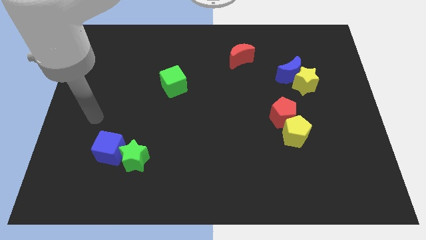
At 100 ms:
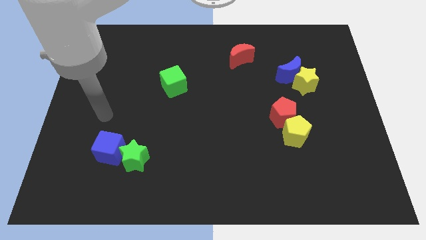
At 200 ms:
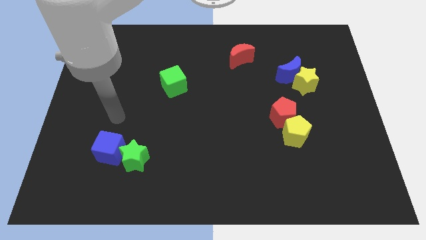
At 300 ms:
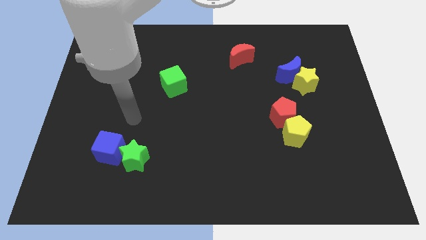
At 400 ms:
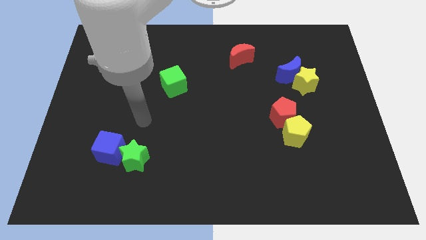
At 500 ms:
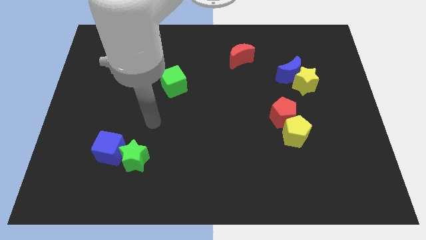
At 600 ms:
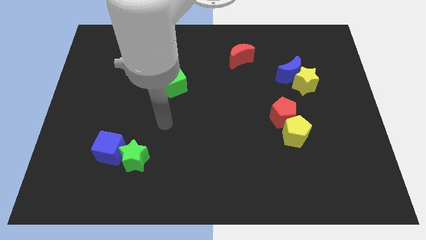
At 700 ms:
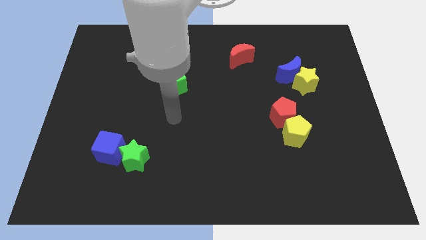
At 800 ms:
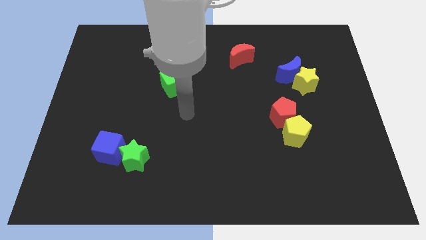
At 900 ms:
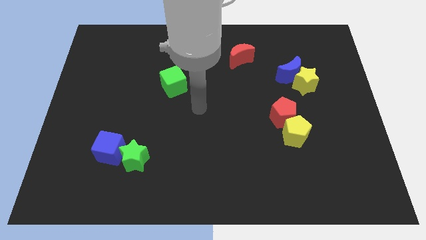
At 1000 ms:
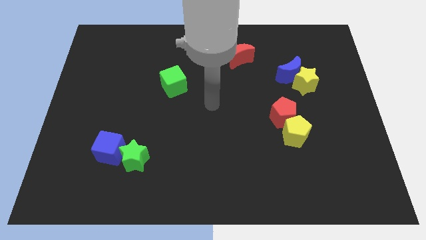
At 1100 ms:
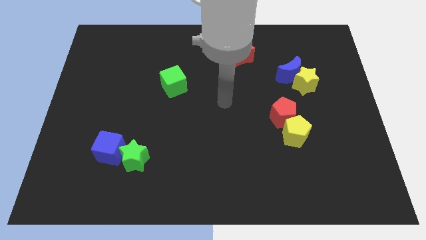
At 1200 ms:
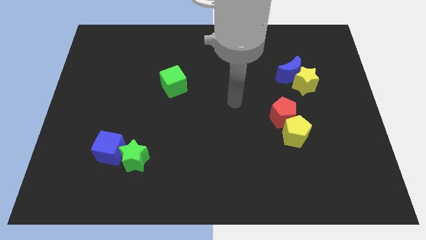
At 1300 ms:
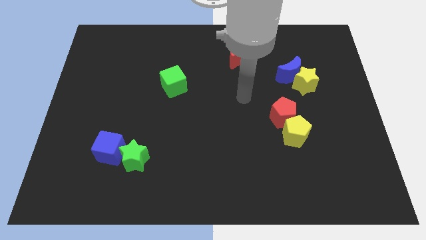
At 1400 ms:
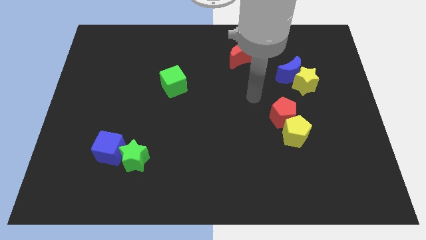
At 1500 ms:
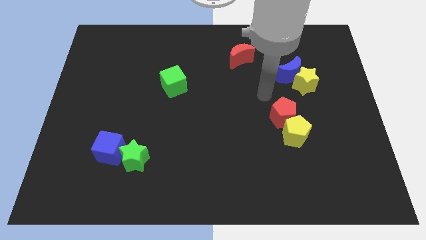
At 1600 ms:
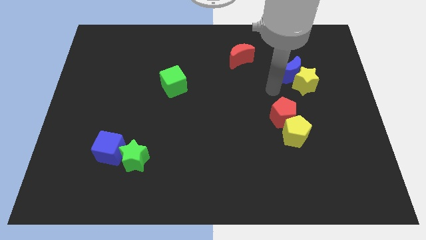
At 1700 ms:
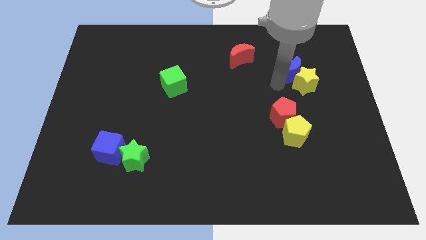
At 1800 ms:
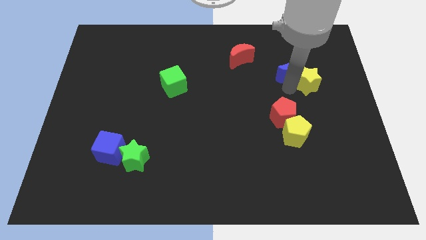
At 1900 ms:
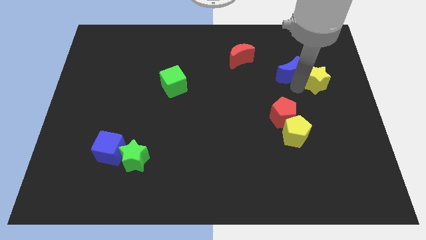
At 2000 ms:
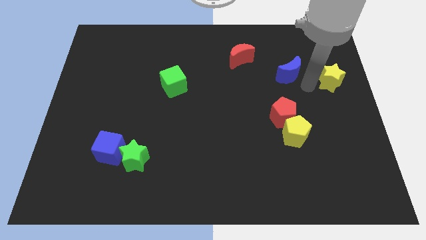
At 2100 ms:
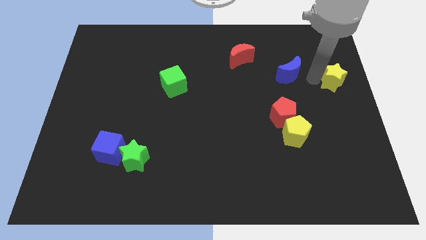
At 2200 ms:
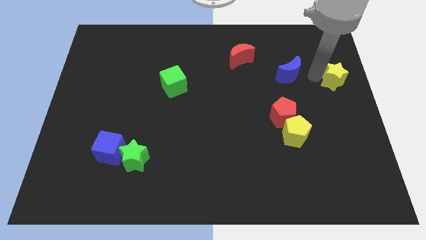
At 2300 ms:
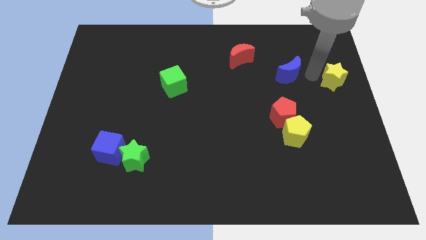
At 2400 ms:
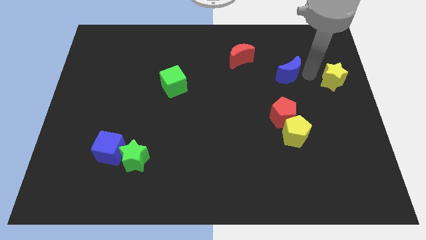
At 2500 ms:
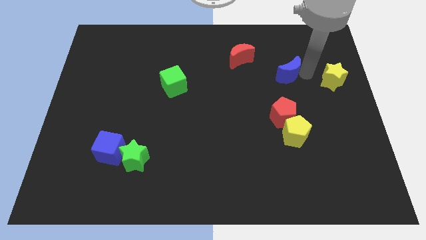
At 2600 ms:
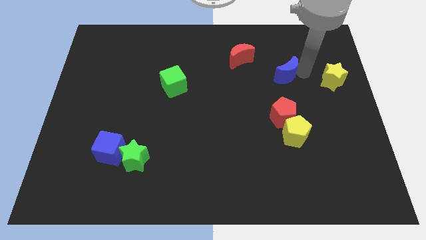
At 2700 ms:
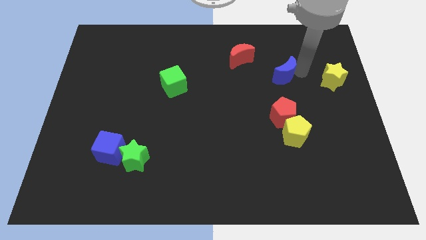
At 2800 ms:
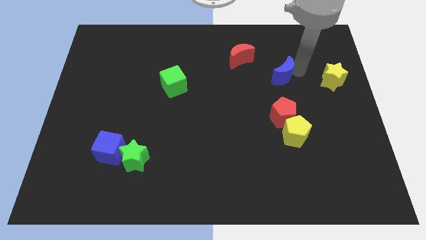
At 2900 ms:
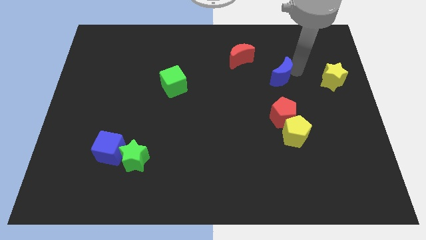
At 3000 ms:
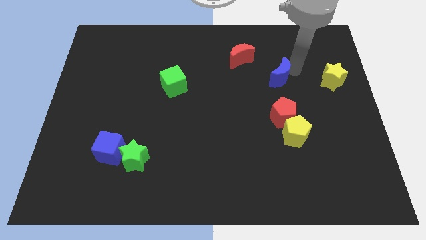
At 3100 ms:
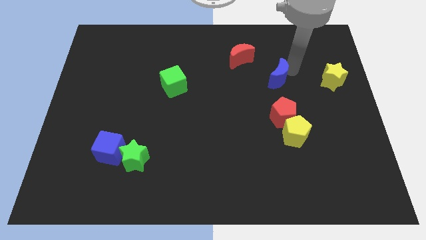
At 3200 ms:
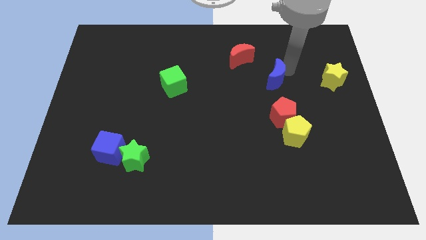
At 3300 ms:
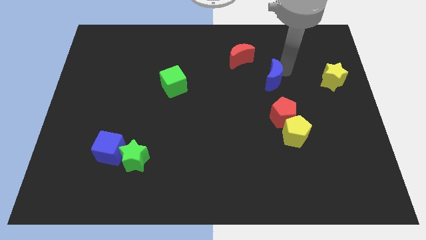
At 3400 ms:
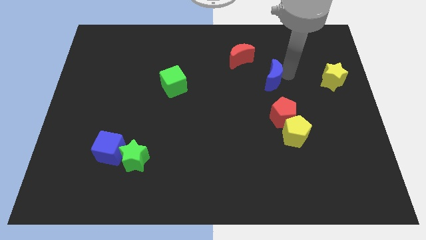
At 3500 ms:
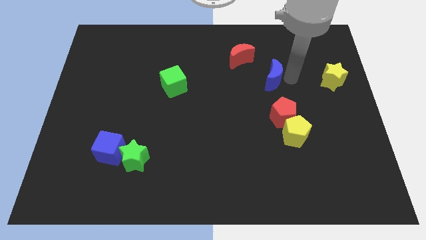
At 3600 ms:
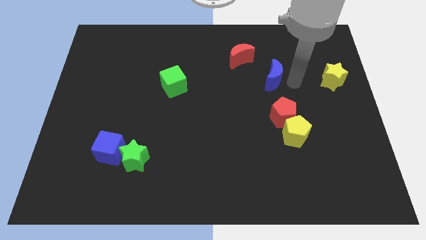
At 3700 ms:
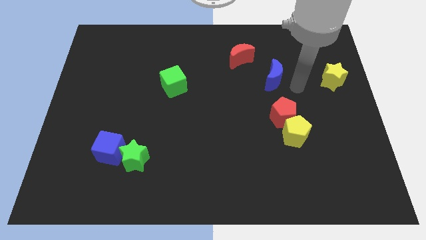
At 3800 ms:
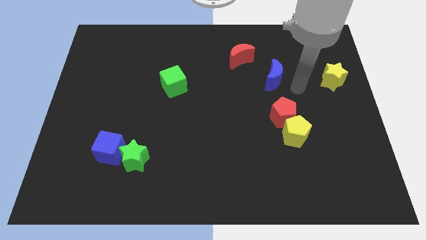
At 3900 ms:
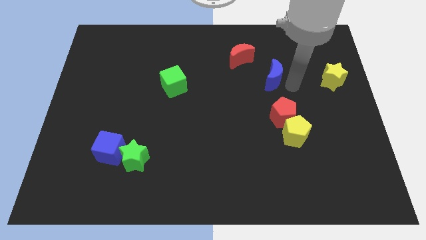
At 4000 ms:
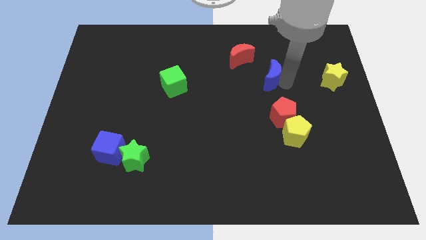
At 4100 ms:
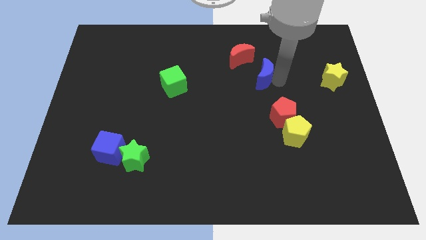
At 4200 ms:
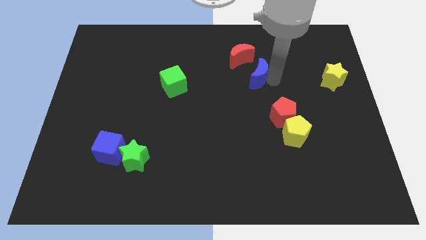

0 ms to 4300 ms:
slightly push the blue moon to the left

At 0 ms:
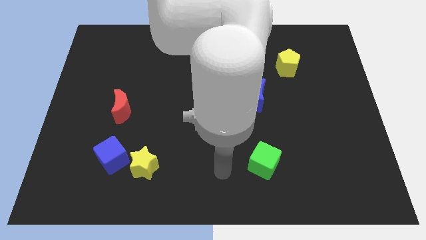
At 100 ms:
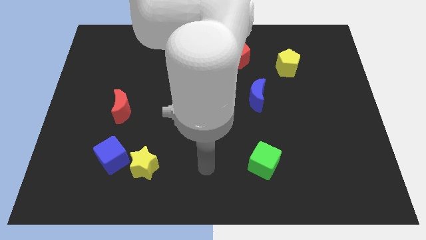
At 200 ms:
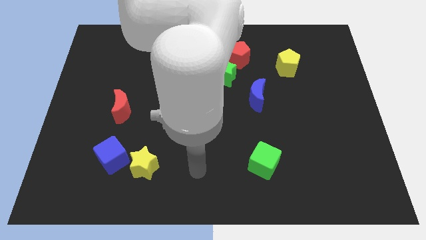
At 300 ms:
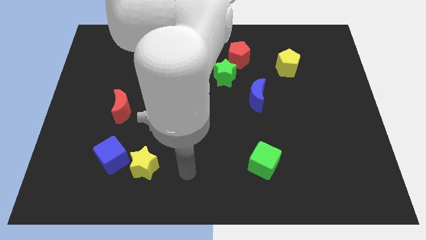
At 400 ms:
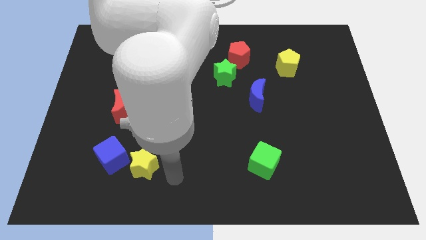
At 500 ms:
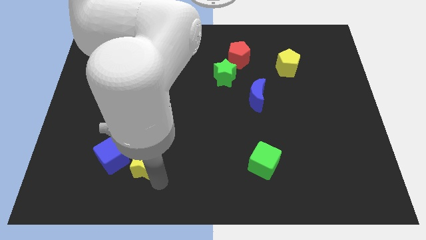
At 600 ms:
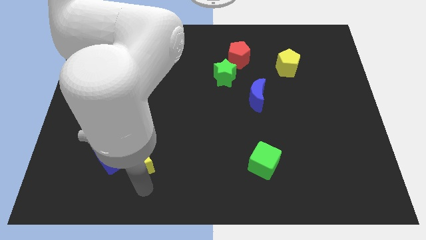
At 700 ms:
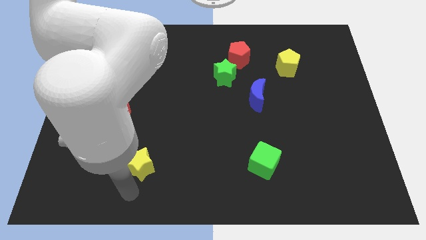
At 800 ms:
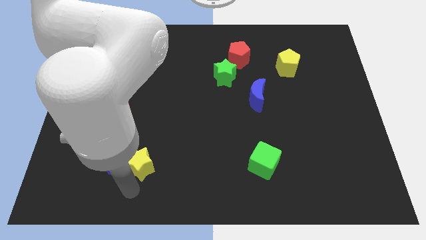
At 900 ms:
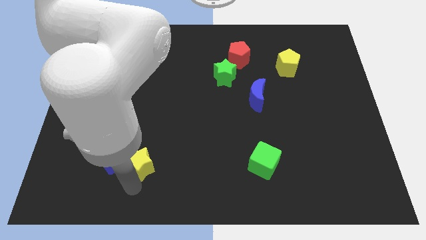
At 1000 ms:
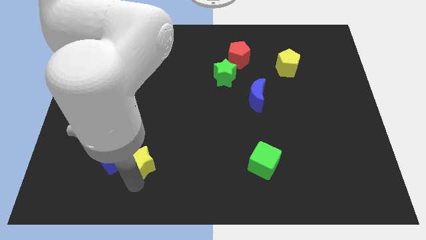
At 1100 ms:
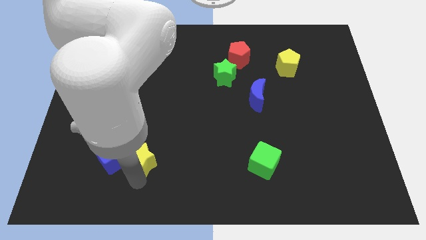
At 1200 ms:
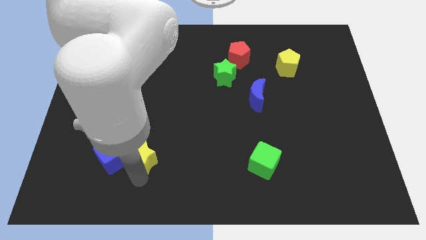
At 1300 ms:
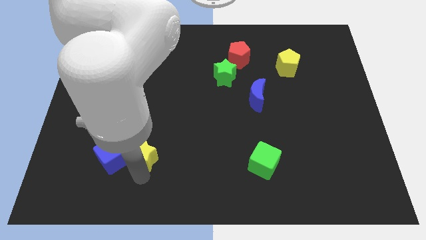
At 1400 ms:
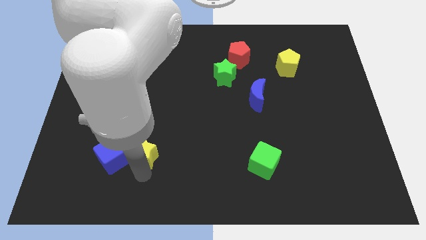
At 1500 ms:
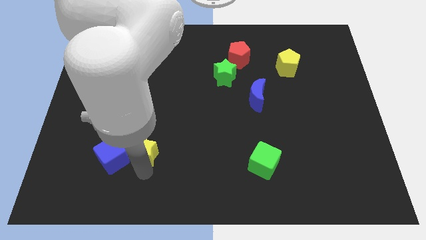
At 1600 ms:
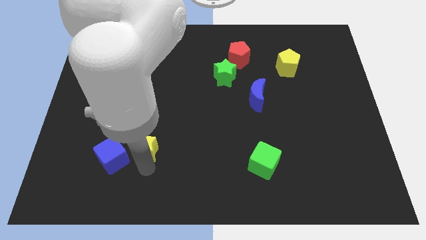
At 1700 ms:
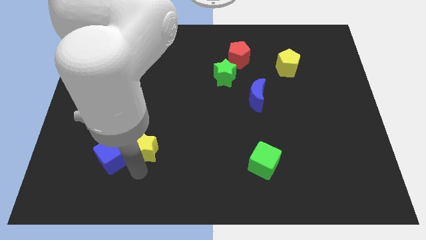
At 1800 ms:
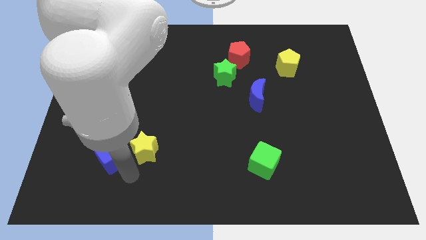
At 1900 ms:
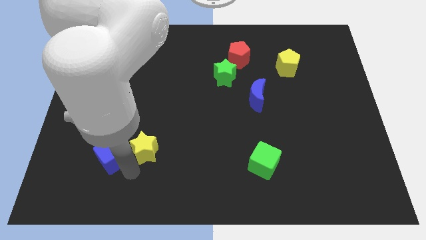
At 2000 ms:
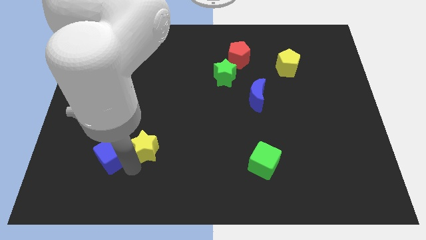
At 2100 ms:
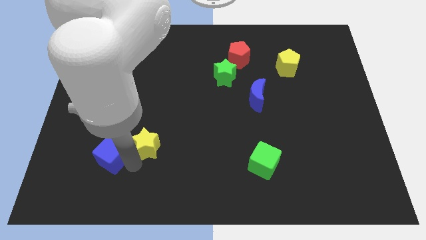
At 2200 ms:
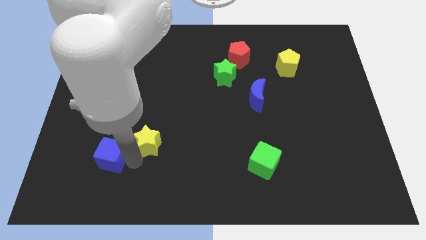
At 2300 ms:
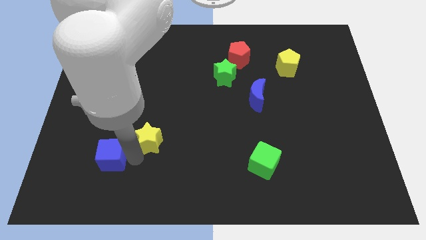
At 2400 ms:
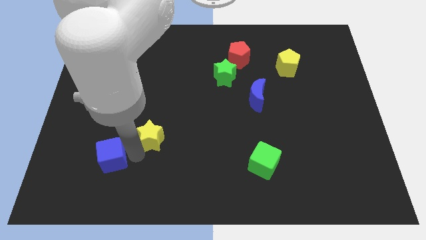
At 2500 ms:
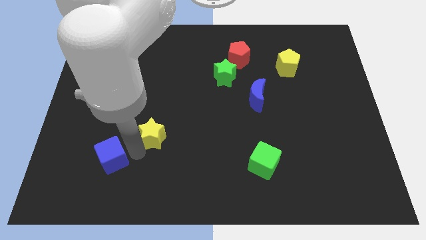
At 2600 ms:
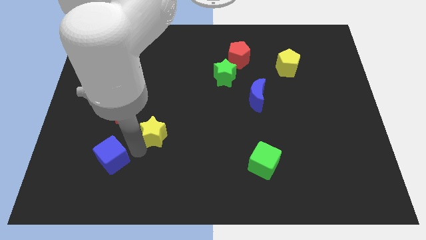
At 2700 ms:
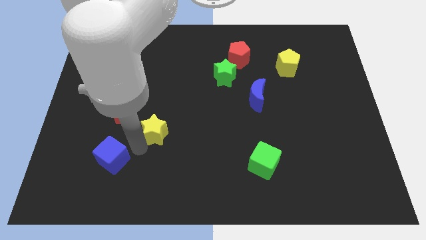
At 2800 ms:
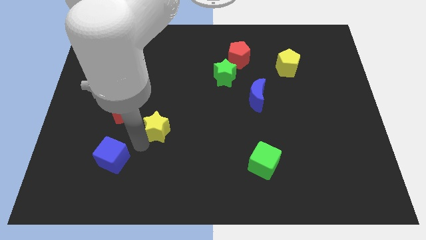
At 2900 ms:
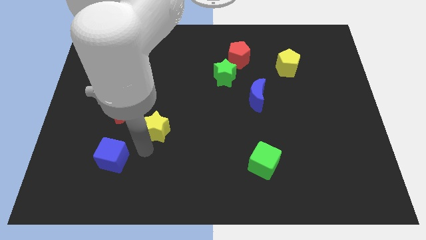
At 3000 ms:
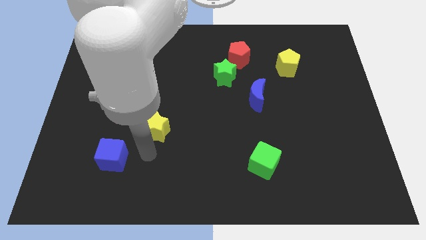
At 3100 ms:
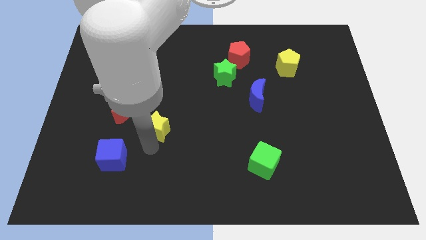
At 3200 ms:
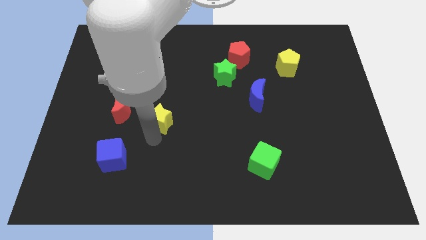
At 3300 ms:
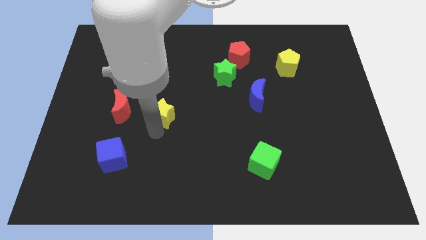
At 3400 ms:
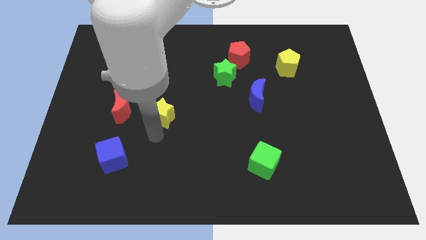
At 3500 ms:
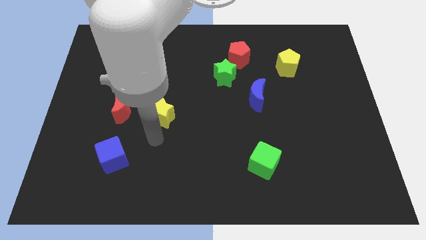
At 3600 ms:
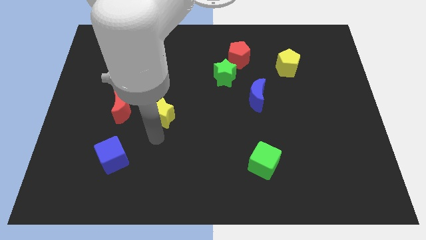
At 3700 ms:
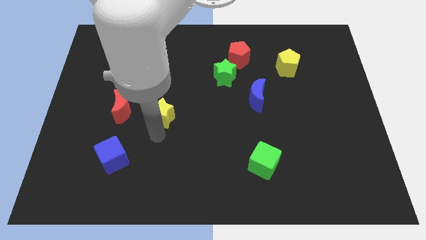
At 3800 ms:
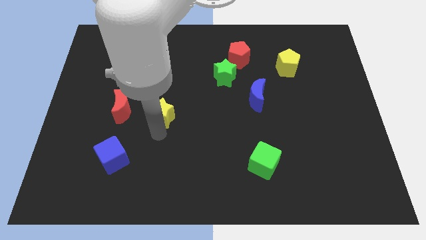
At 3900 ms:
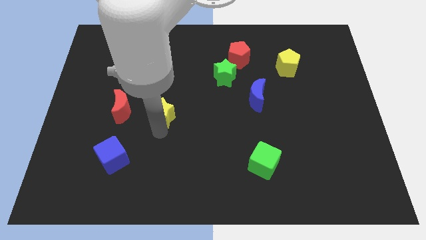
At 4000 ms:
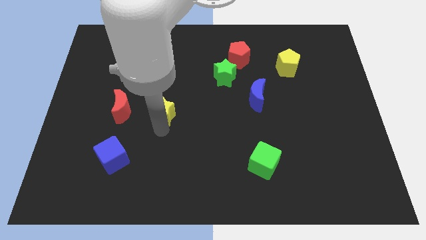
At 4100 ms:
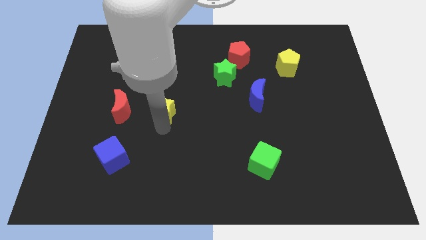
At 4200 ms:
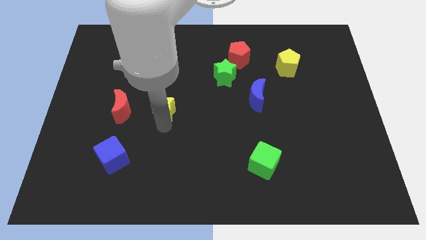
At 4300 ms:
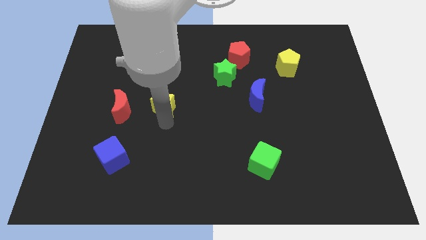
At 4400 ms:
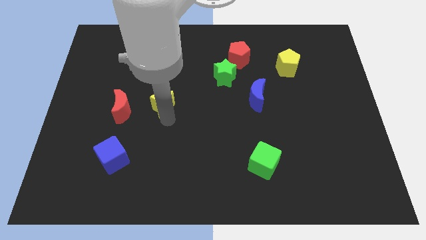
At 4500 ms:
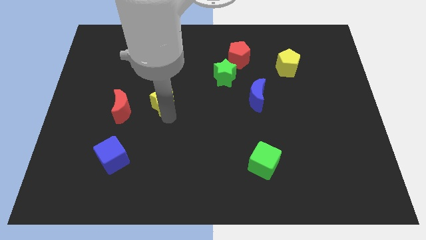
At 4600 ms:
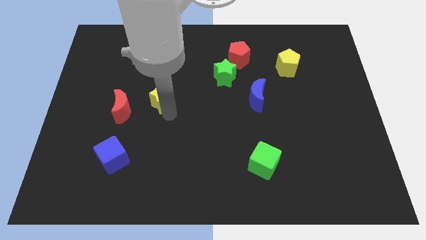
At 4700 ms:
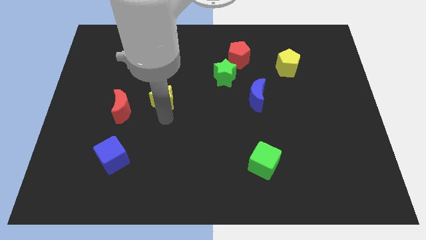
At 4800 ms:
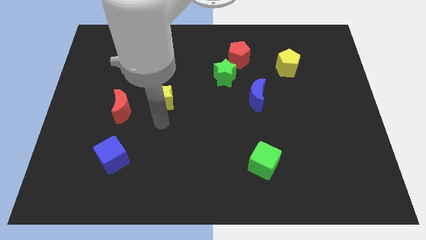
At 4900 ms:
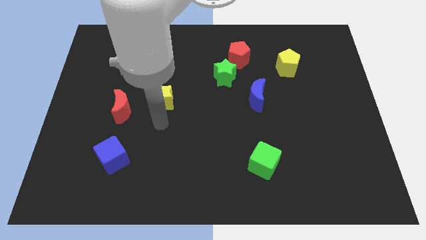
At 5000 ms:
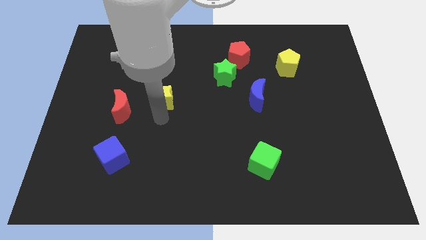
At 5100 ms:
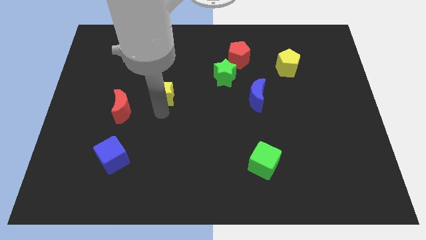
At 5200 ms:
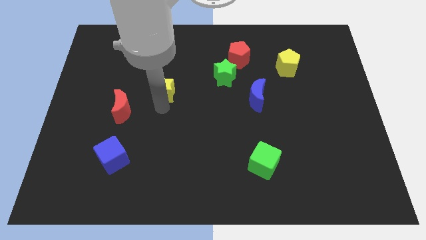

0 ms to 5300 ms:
move the yellow star up
